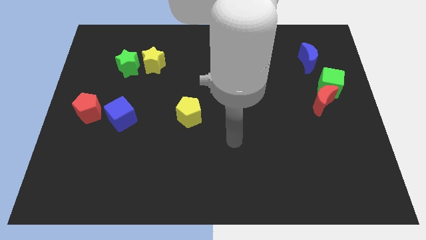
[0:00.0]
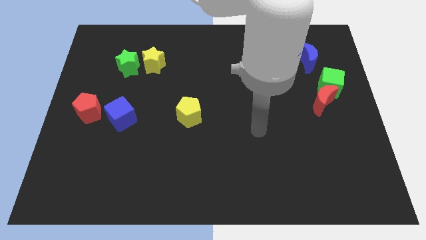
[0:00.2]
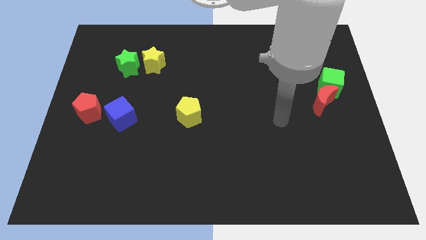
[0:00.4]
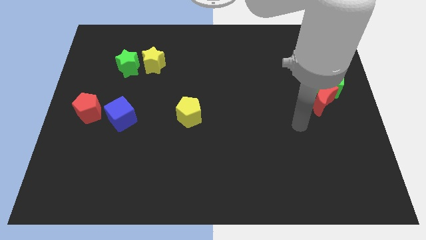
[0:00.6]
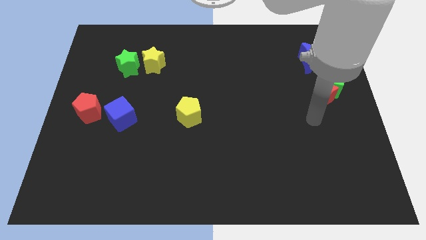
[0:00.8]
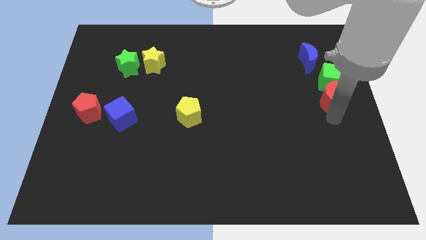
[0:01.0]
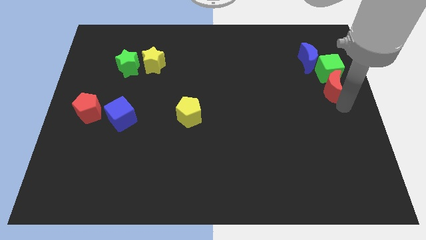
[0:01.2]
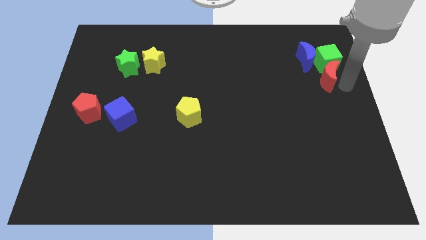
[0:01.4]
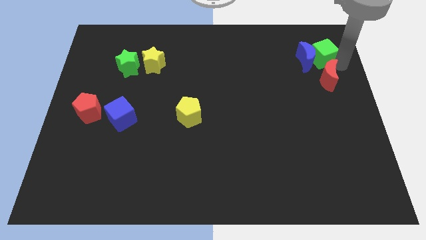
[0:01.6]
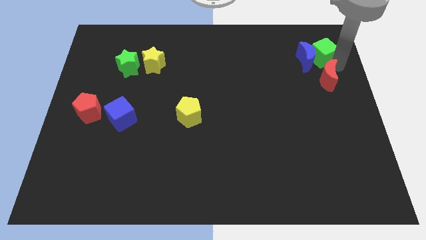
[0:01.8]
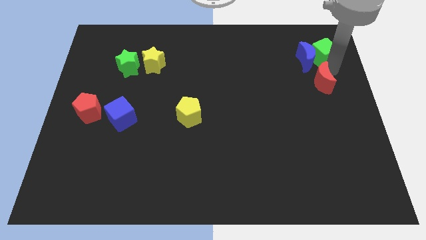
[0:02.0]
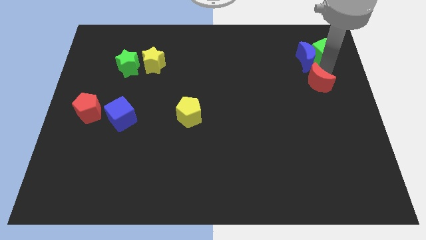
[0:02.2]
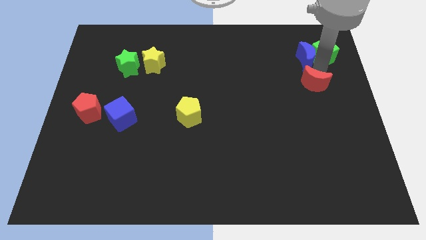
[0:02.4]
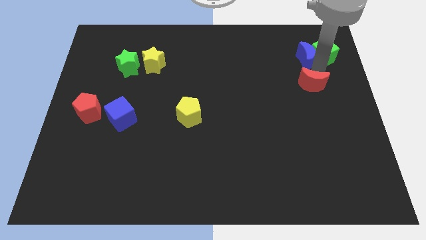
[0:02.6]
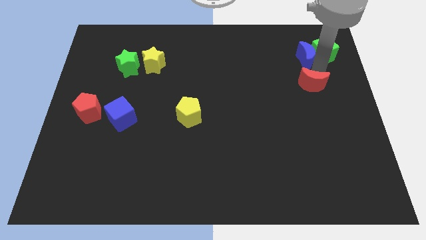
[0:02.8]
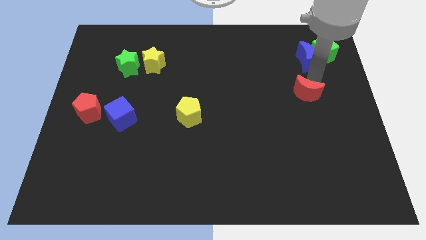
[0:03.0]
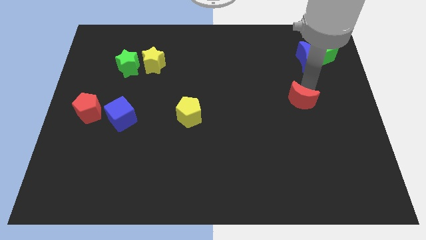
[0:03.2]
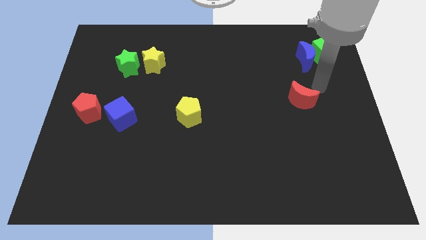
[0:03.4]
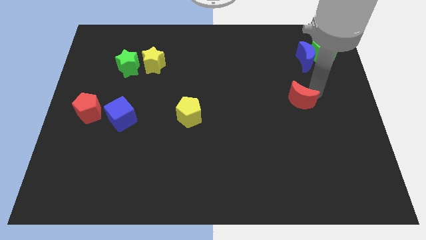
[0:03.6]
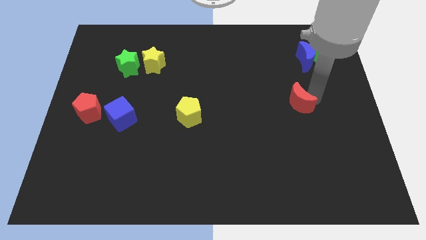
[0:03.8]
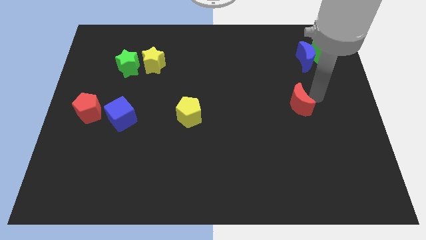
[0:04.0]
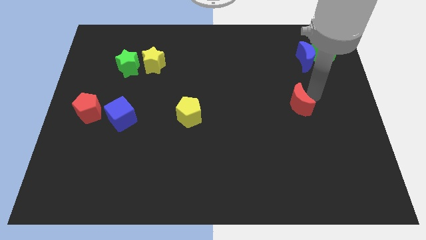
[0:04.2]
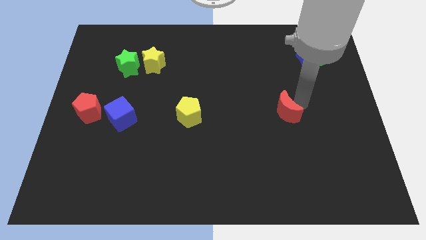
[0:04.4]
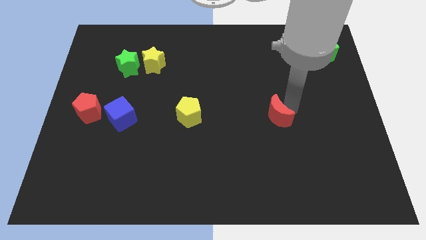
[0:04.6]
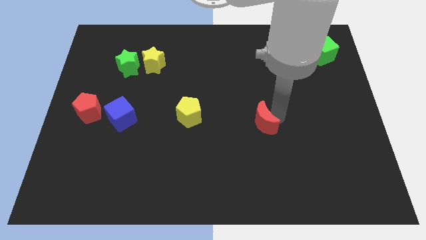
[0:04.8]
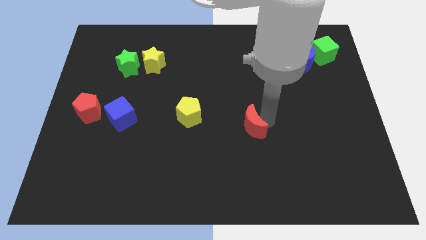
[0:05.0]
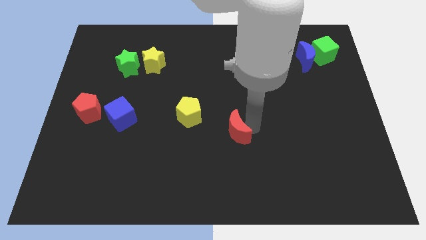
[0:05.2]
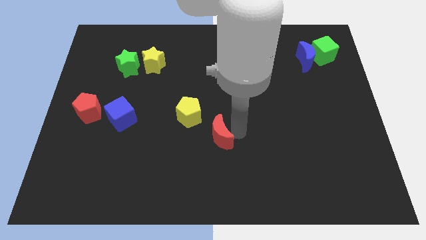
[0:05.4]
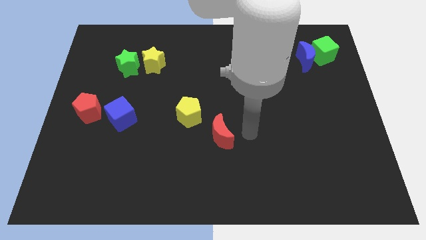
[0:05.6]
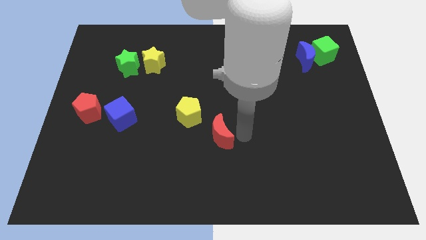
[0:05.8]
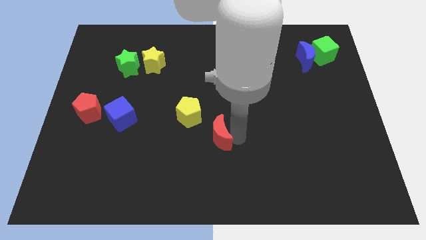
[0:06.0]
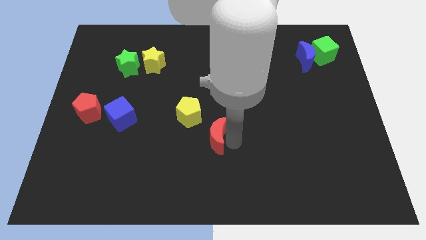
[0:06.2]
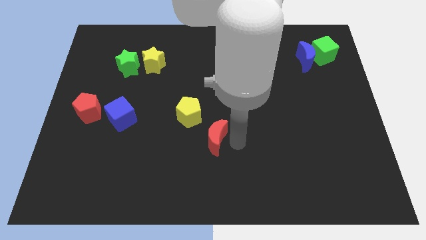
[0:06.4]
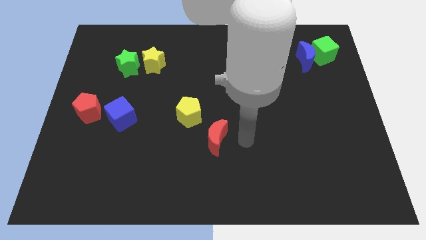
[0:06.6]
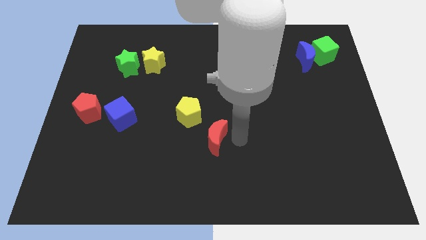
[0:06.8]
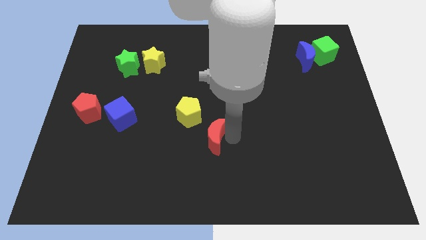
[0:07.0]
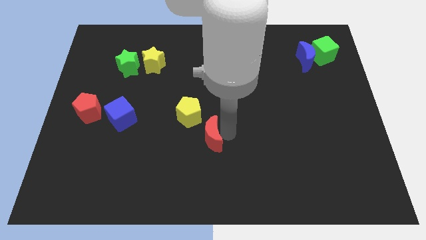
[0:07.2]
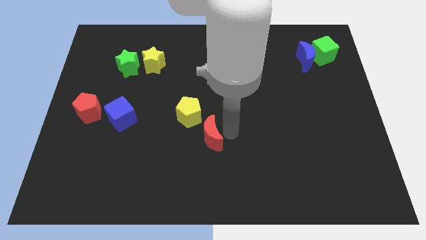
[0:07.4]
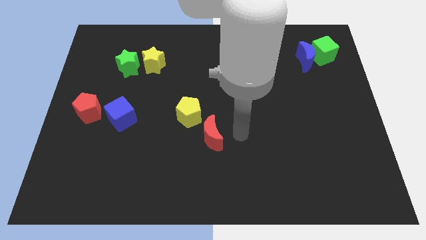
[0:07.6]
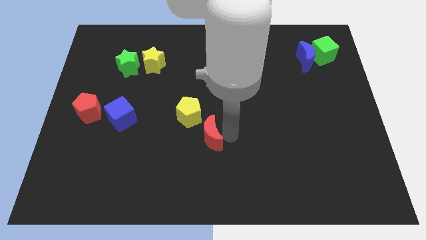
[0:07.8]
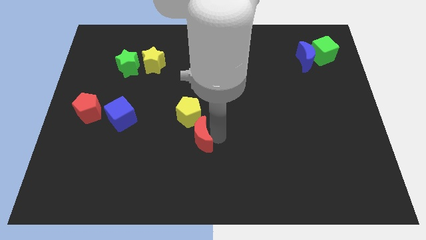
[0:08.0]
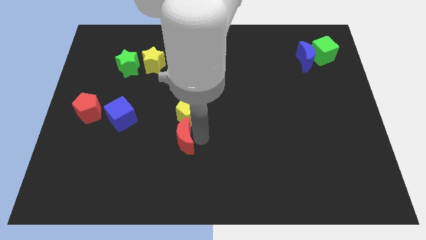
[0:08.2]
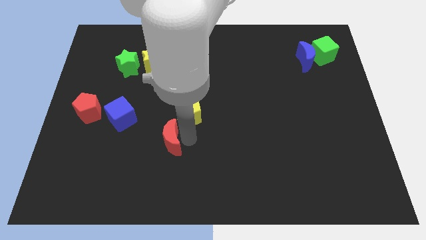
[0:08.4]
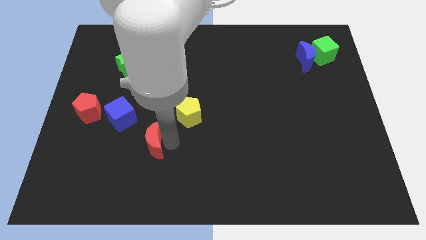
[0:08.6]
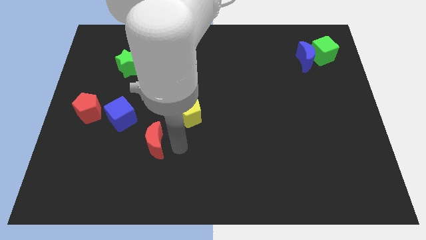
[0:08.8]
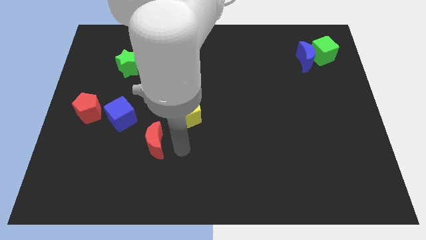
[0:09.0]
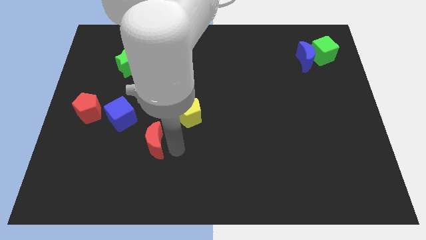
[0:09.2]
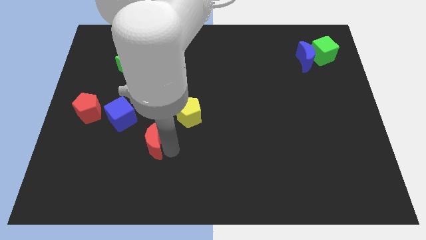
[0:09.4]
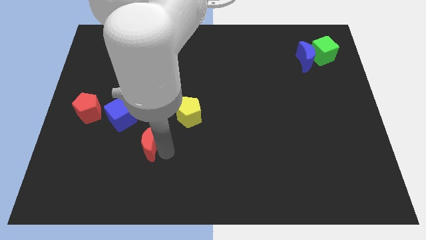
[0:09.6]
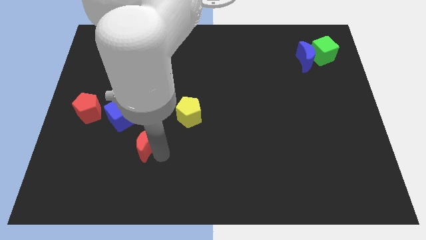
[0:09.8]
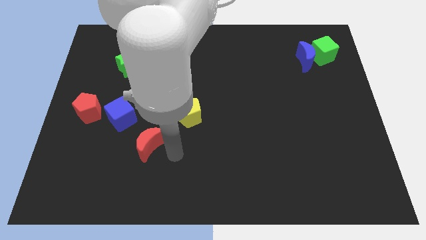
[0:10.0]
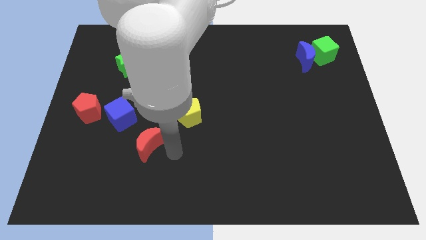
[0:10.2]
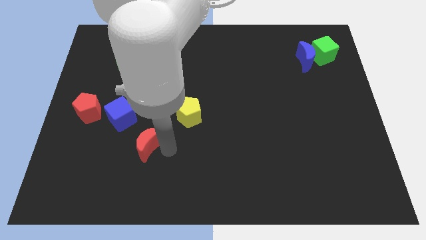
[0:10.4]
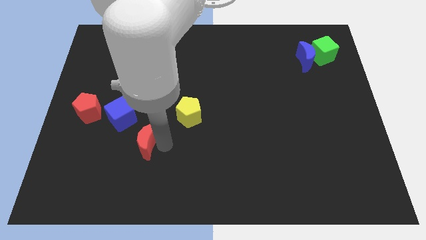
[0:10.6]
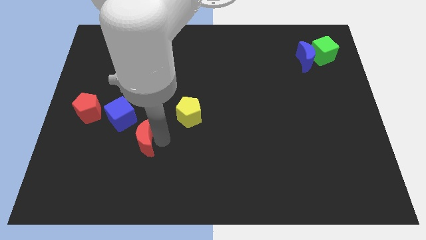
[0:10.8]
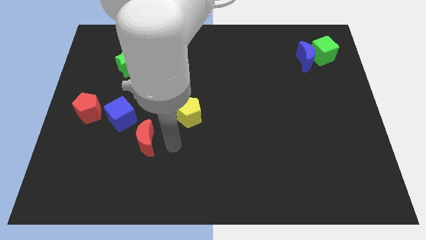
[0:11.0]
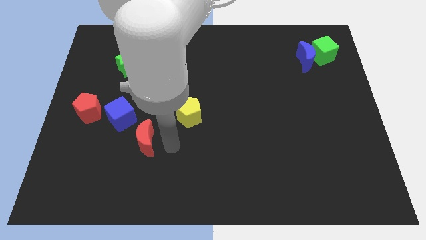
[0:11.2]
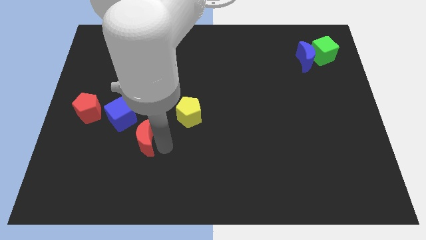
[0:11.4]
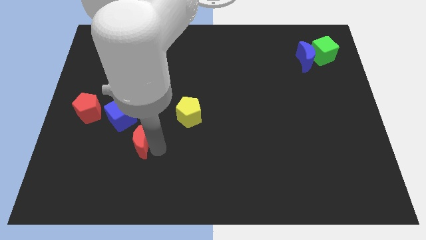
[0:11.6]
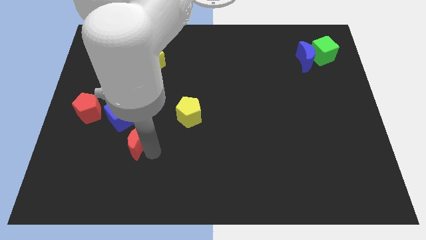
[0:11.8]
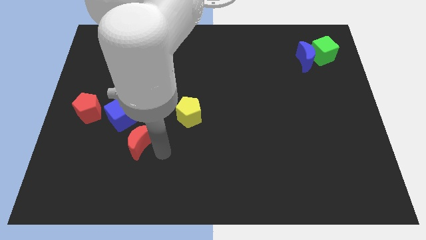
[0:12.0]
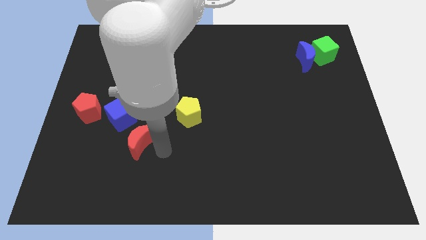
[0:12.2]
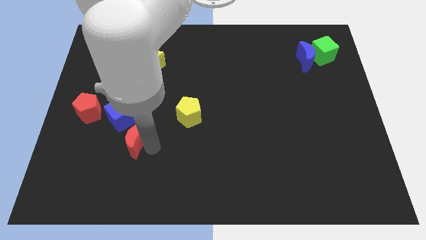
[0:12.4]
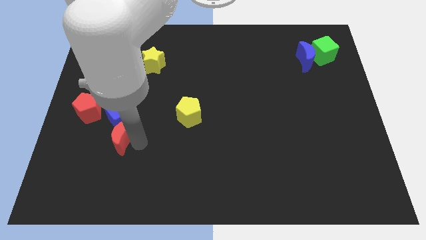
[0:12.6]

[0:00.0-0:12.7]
move the red moon to the bottom right of the red pentagon

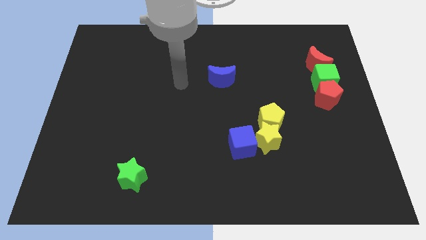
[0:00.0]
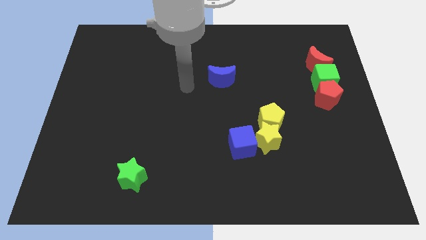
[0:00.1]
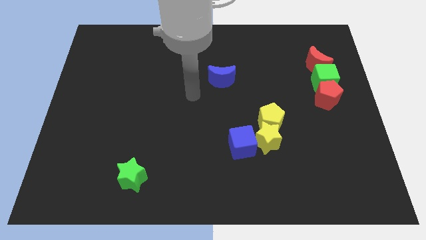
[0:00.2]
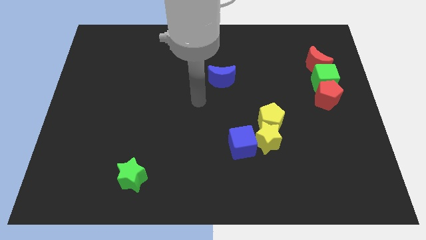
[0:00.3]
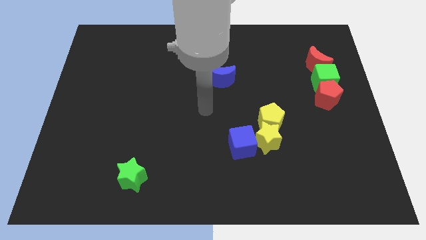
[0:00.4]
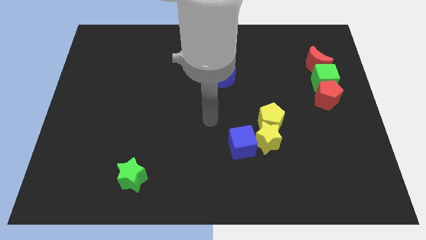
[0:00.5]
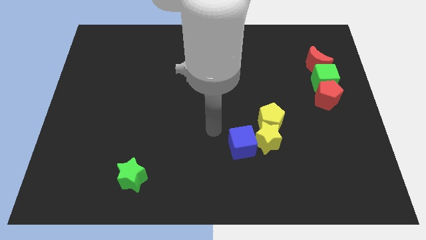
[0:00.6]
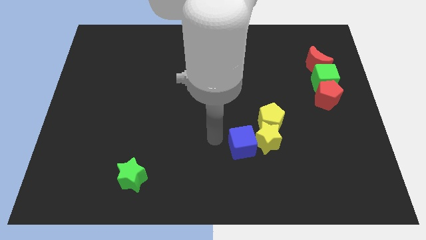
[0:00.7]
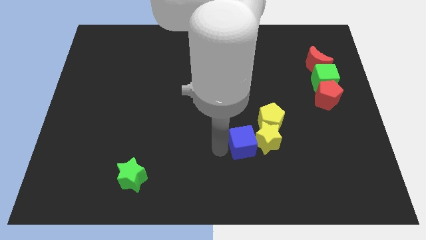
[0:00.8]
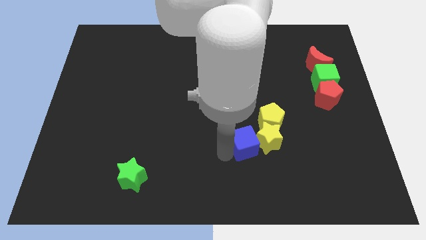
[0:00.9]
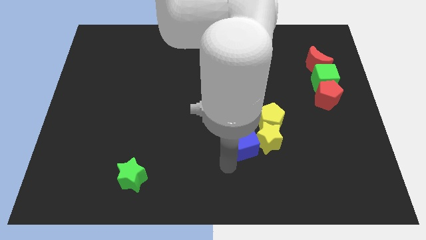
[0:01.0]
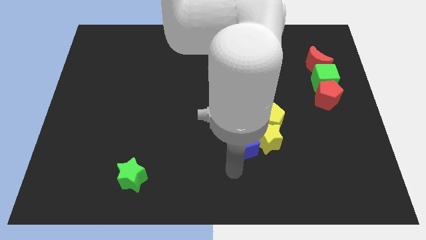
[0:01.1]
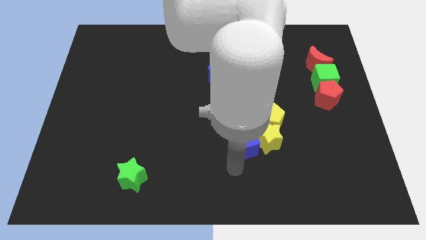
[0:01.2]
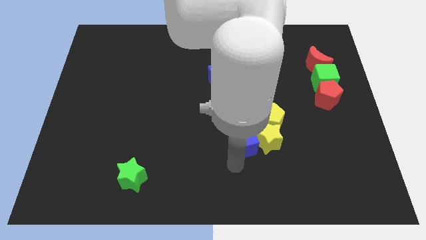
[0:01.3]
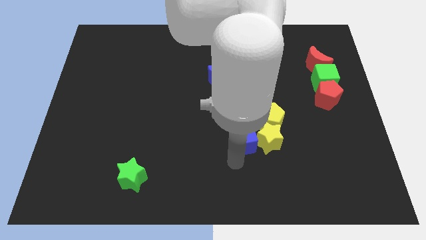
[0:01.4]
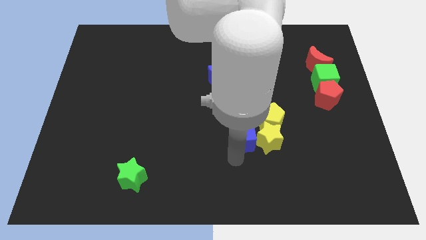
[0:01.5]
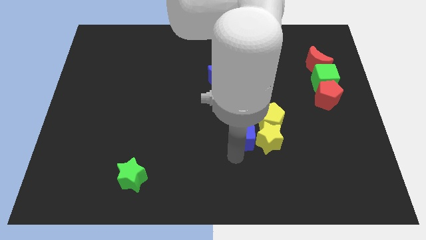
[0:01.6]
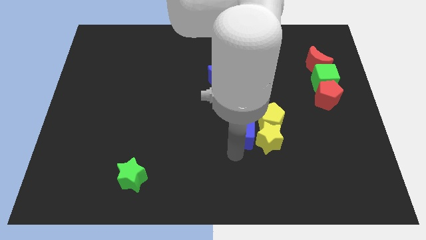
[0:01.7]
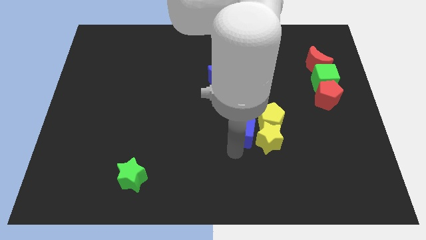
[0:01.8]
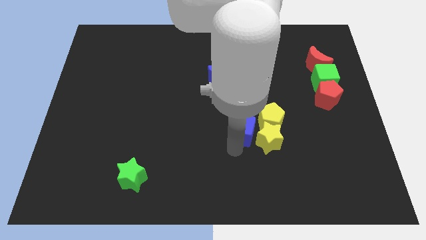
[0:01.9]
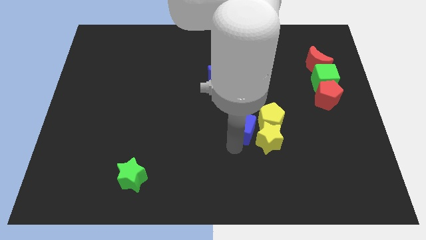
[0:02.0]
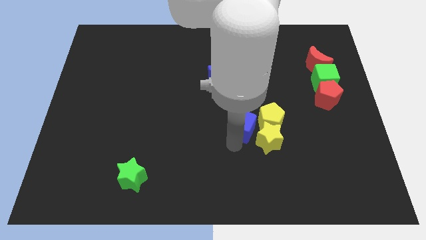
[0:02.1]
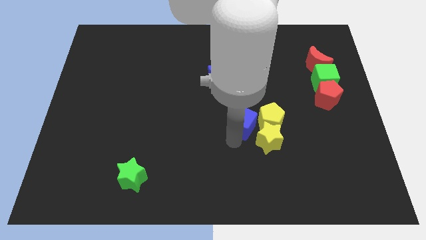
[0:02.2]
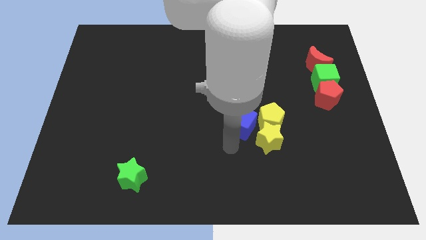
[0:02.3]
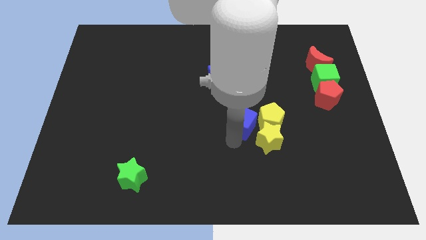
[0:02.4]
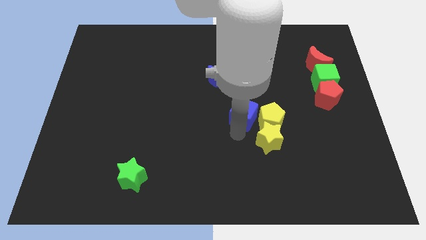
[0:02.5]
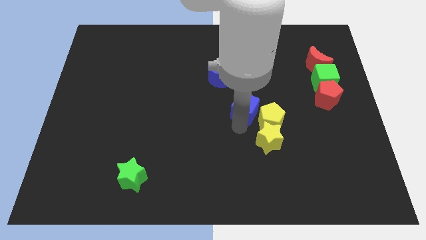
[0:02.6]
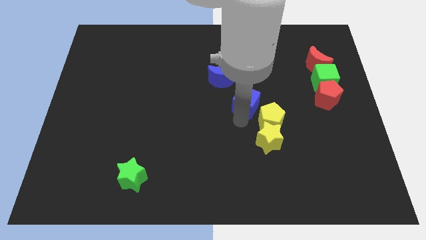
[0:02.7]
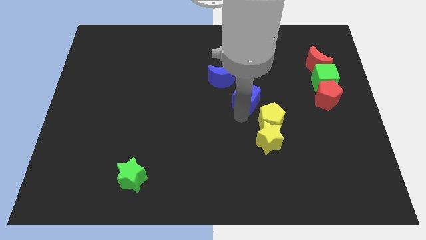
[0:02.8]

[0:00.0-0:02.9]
push the blue cube to the top of the yellow pentagon
